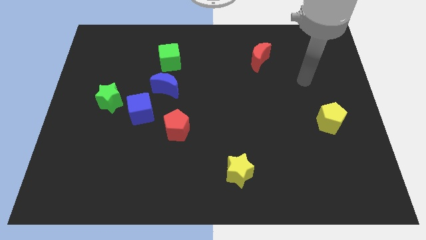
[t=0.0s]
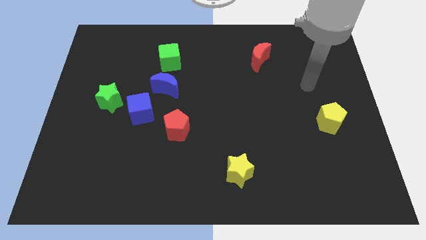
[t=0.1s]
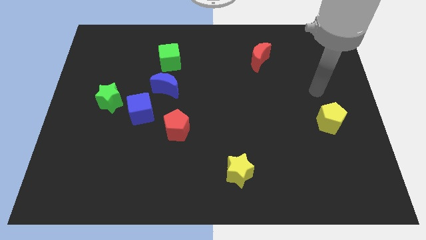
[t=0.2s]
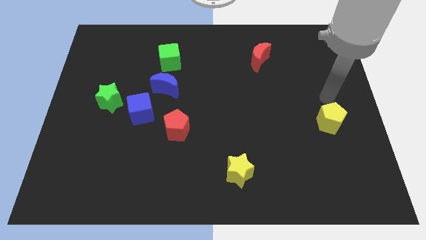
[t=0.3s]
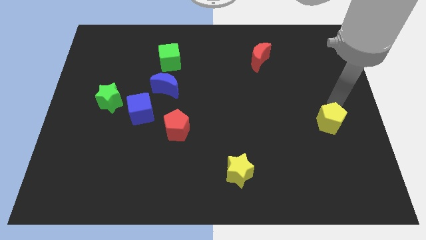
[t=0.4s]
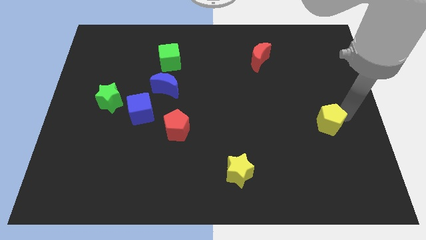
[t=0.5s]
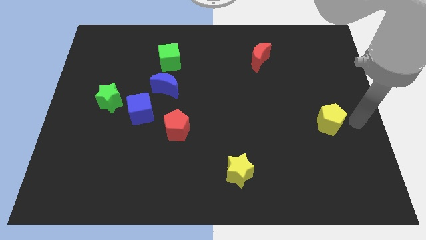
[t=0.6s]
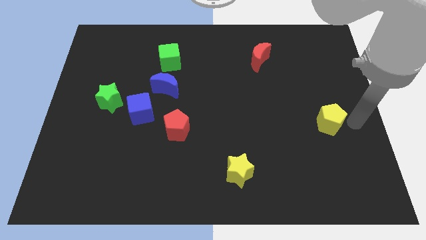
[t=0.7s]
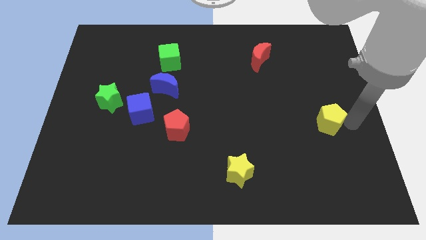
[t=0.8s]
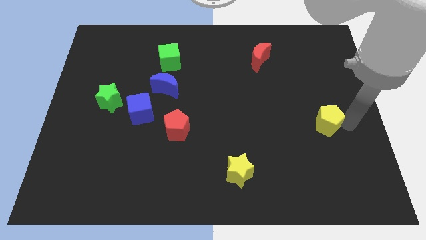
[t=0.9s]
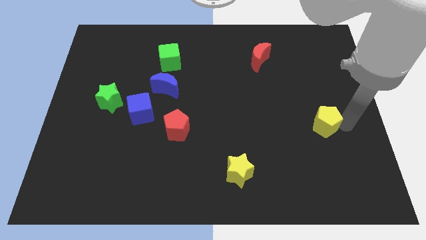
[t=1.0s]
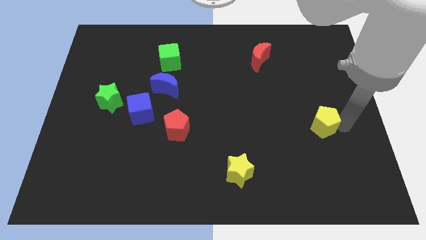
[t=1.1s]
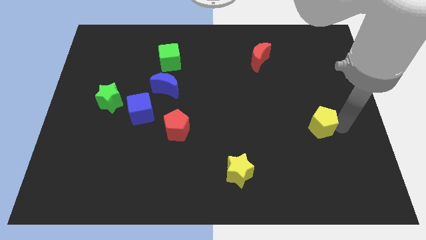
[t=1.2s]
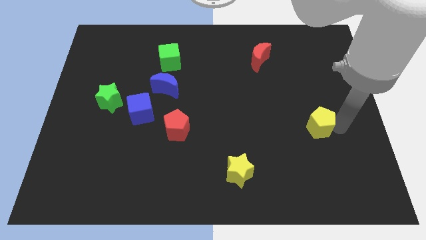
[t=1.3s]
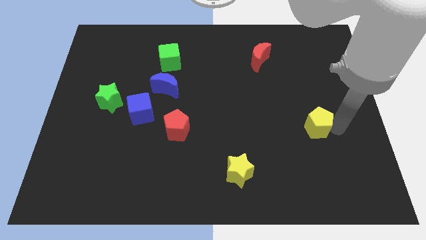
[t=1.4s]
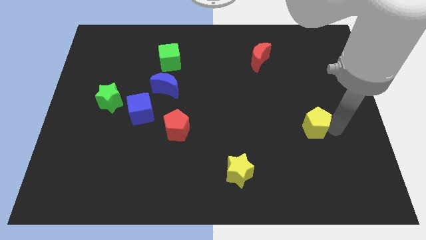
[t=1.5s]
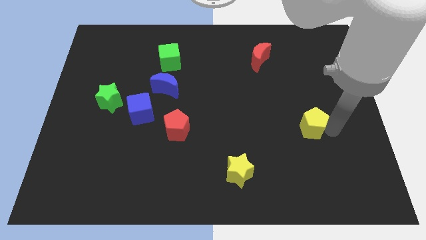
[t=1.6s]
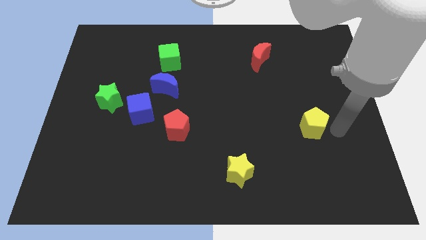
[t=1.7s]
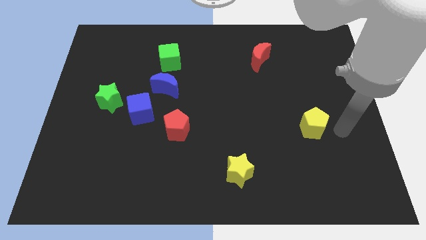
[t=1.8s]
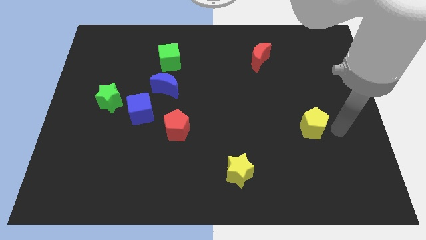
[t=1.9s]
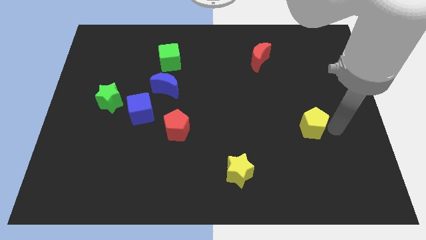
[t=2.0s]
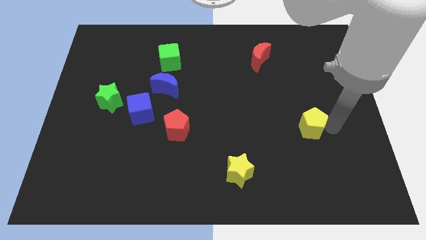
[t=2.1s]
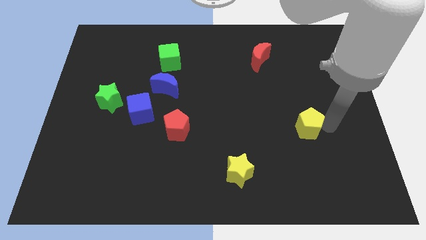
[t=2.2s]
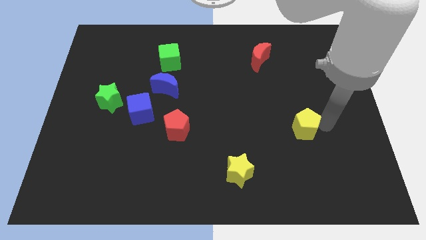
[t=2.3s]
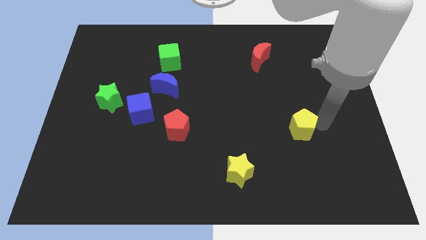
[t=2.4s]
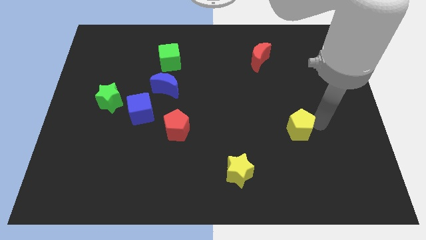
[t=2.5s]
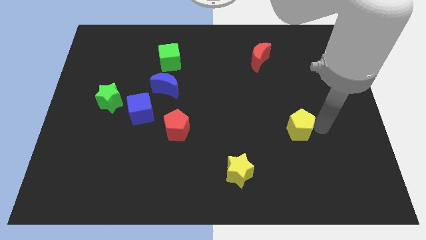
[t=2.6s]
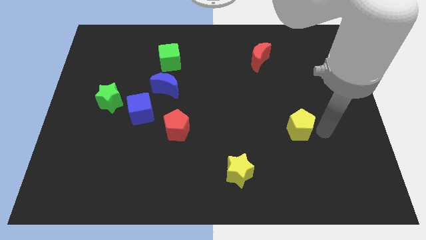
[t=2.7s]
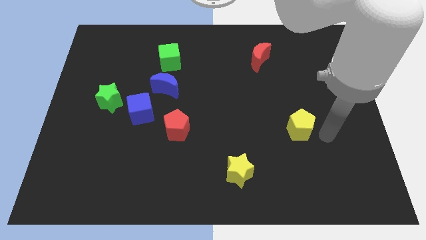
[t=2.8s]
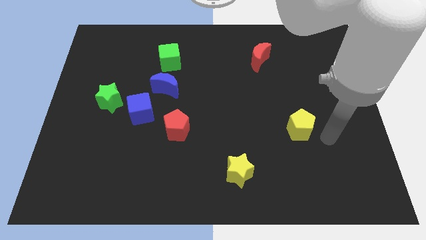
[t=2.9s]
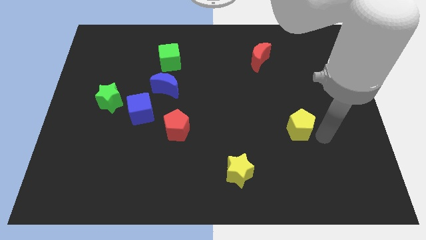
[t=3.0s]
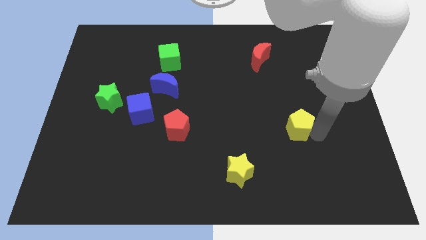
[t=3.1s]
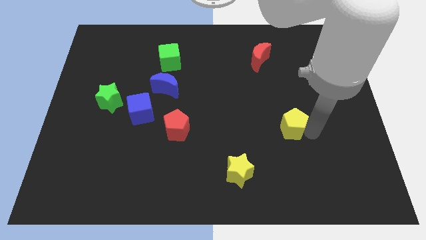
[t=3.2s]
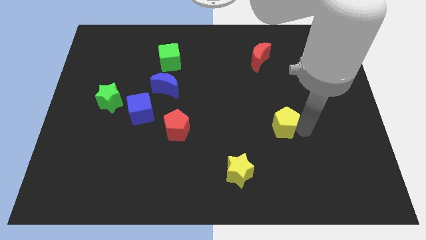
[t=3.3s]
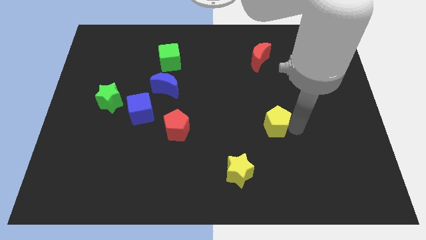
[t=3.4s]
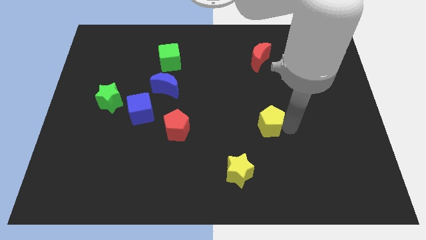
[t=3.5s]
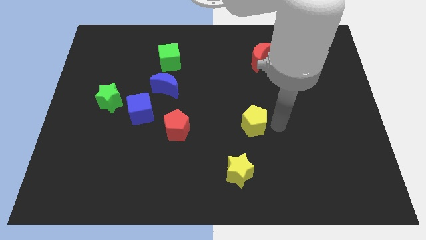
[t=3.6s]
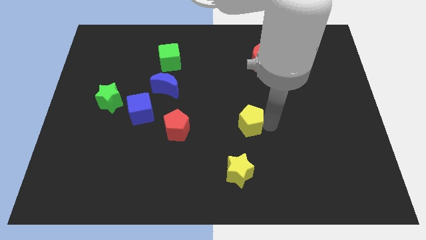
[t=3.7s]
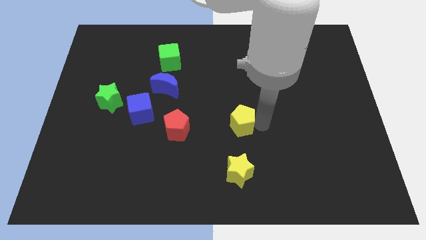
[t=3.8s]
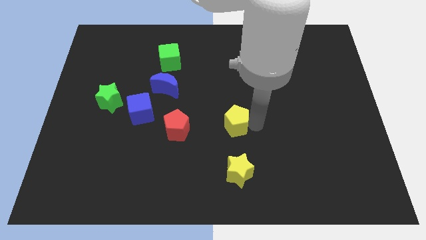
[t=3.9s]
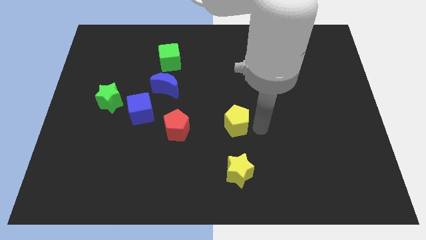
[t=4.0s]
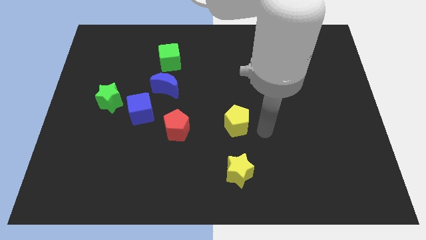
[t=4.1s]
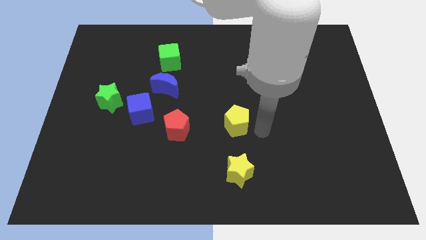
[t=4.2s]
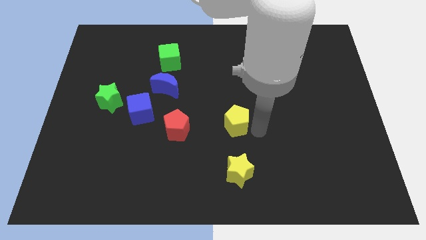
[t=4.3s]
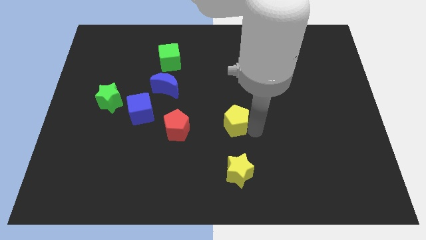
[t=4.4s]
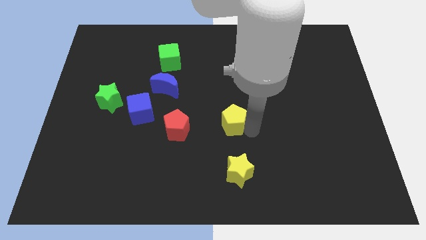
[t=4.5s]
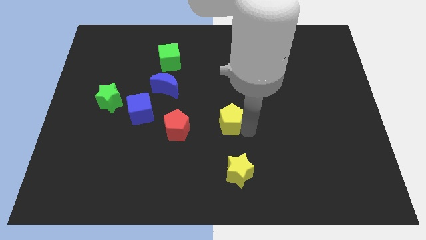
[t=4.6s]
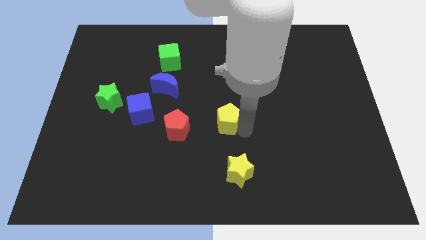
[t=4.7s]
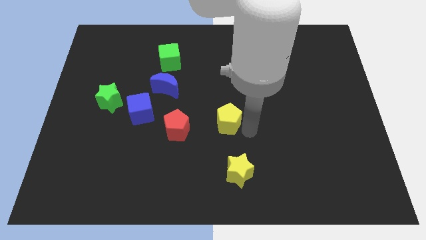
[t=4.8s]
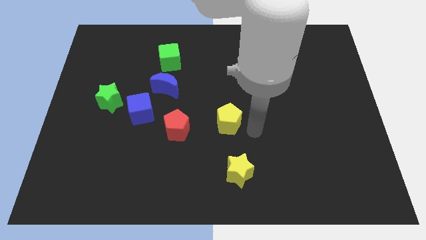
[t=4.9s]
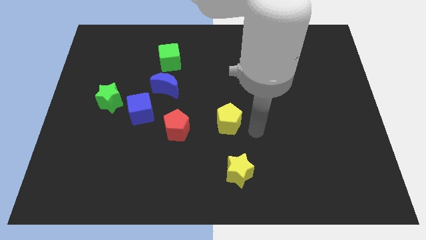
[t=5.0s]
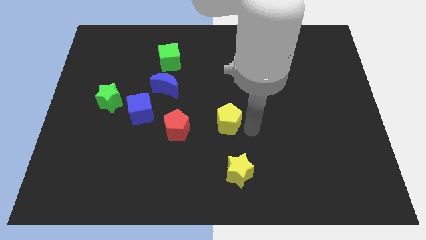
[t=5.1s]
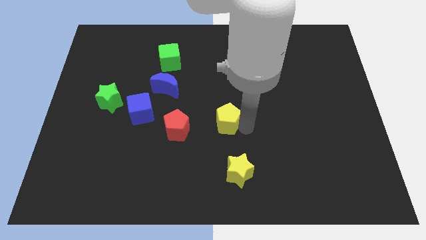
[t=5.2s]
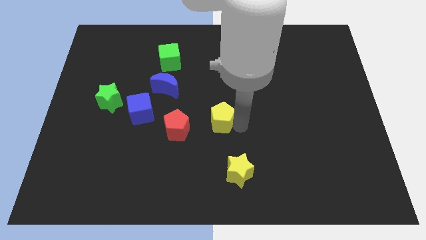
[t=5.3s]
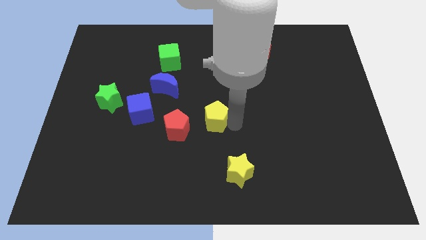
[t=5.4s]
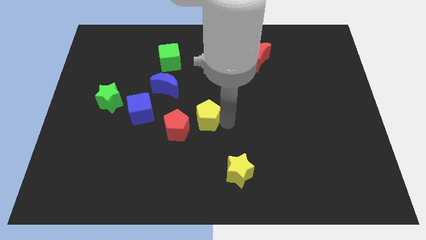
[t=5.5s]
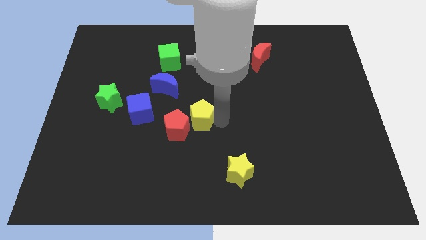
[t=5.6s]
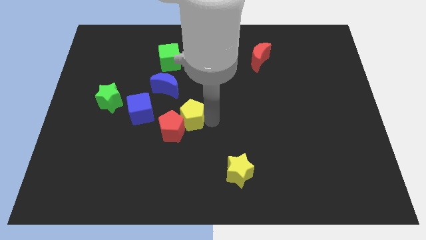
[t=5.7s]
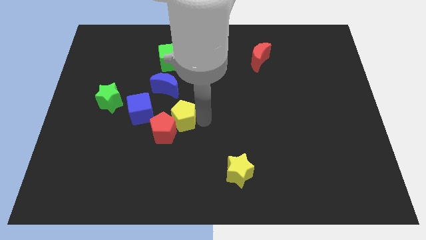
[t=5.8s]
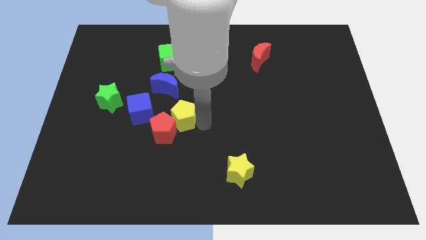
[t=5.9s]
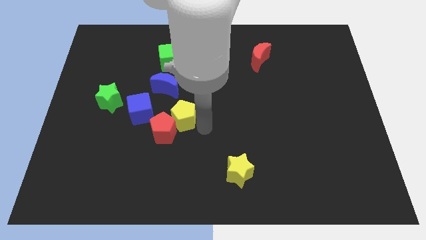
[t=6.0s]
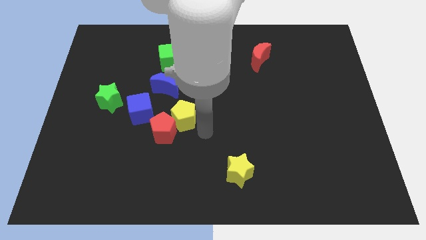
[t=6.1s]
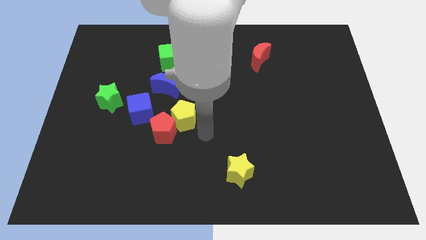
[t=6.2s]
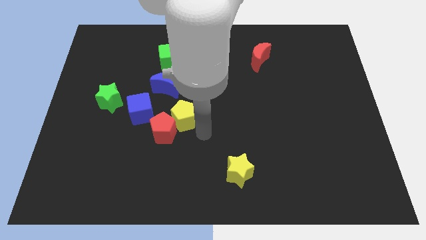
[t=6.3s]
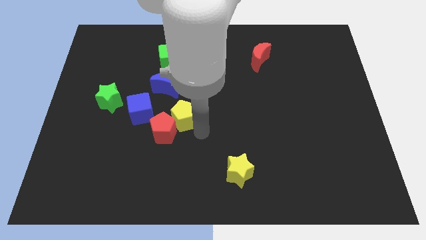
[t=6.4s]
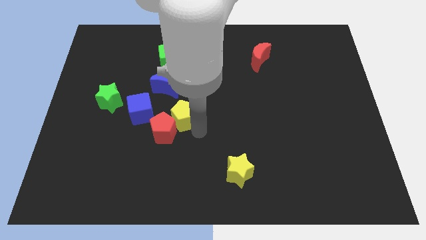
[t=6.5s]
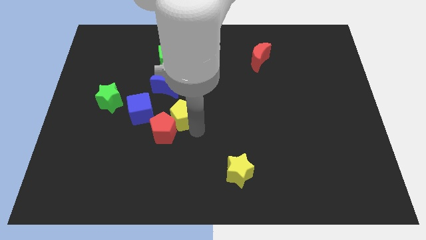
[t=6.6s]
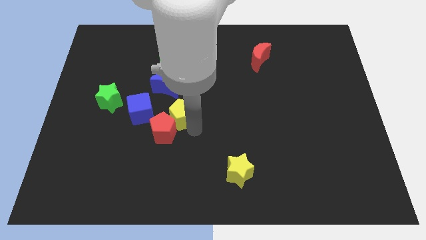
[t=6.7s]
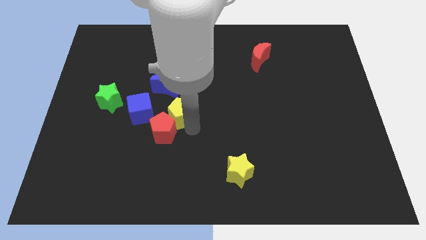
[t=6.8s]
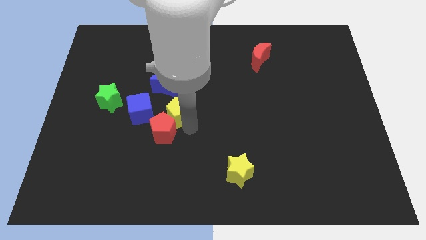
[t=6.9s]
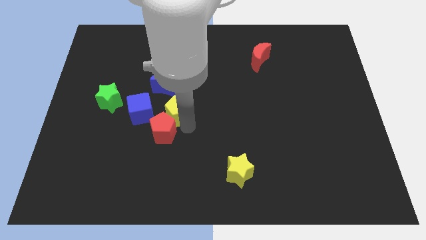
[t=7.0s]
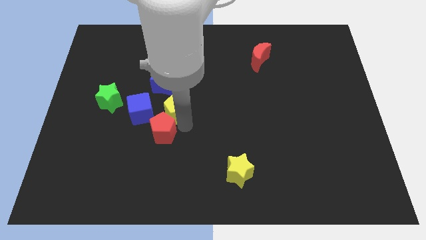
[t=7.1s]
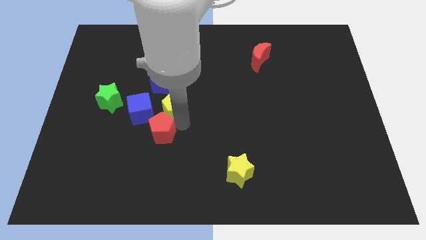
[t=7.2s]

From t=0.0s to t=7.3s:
slide the yellow pentagon just right of the green star

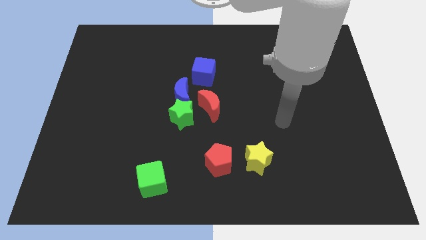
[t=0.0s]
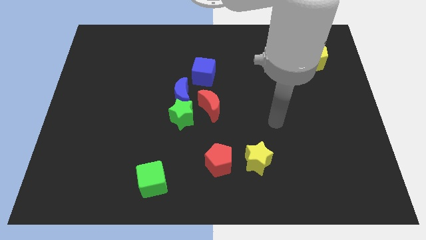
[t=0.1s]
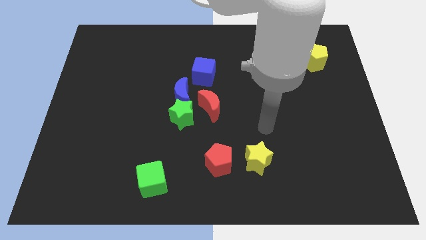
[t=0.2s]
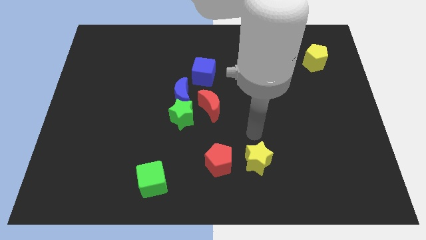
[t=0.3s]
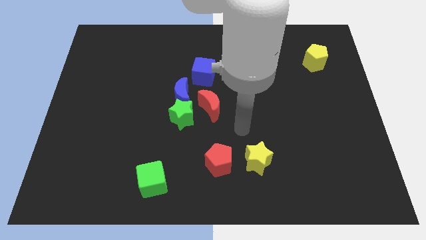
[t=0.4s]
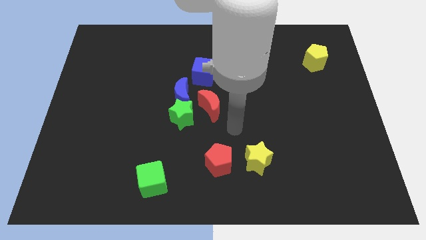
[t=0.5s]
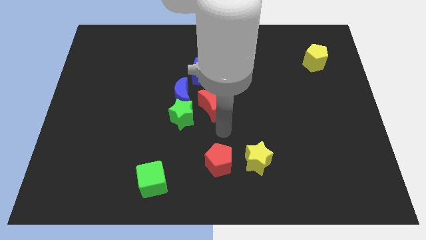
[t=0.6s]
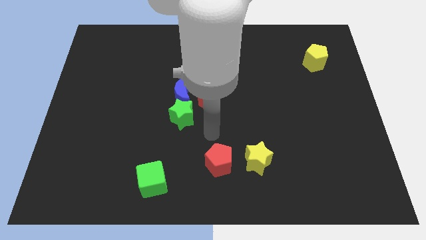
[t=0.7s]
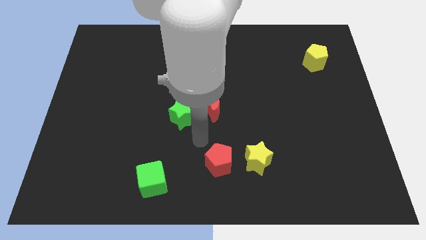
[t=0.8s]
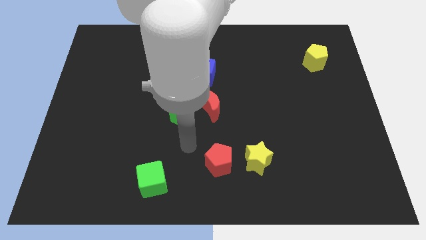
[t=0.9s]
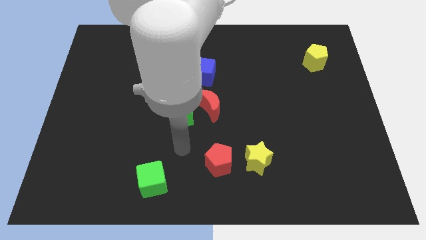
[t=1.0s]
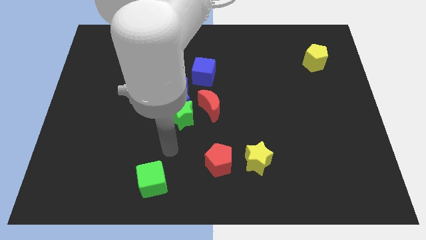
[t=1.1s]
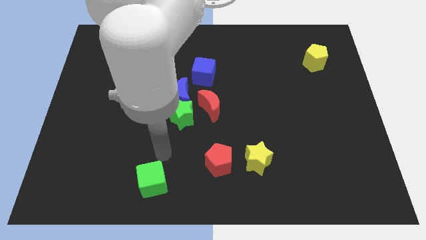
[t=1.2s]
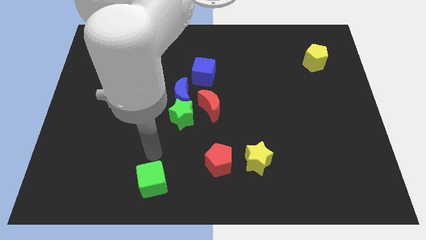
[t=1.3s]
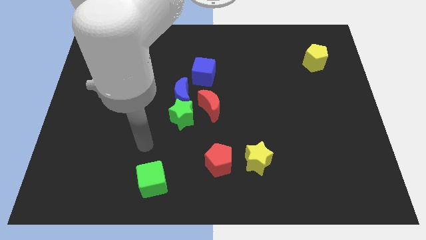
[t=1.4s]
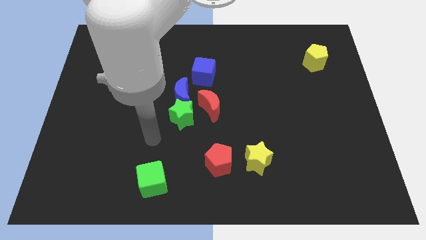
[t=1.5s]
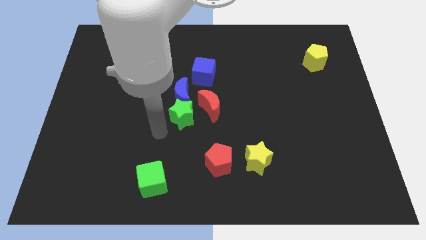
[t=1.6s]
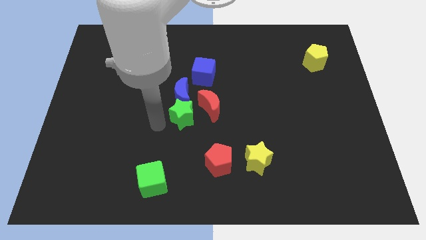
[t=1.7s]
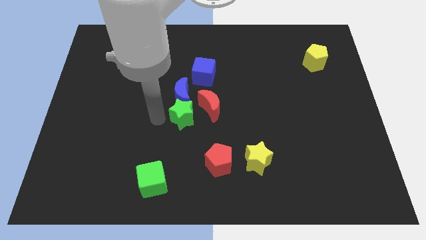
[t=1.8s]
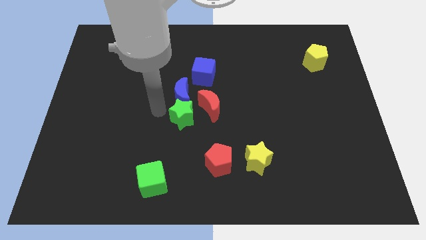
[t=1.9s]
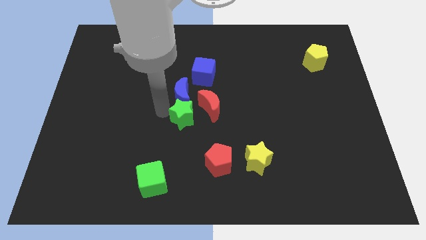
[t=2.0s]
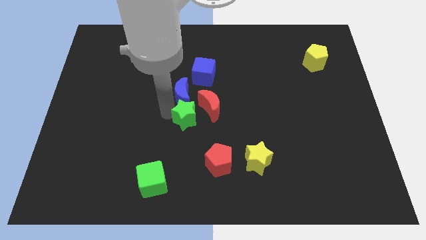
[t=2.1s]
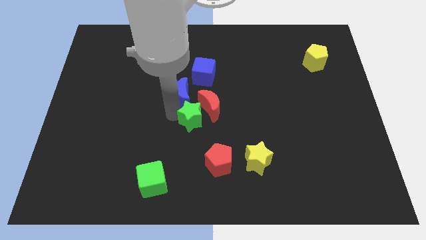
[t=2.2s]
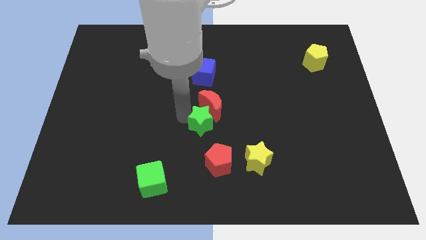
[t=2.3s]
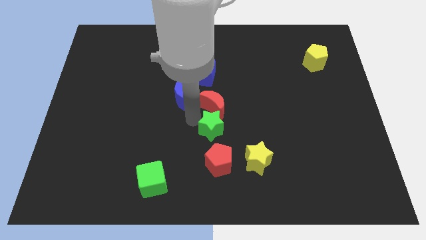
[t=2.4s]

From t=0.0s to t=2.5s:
slide the green star to the top left side of the yellow star
